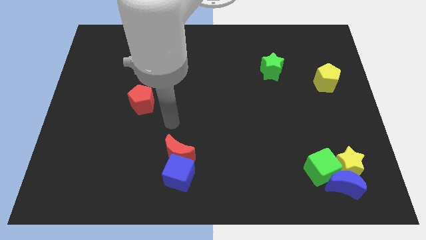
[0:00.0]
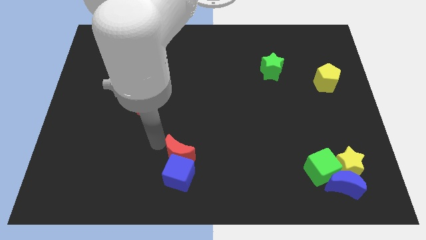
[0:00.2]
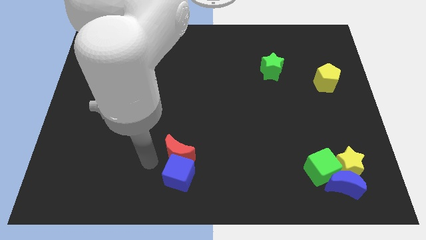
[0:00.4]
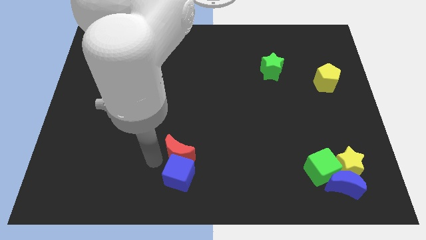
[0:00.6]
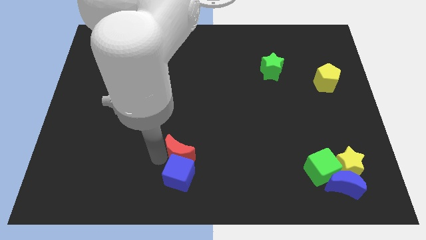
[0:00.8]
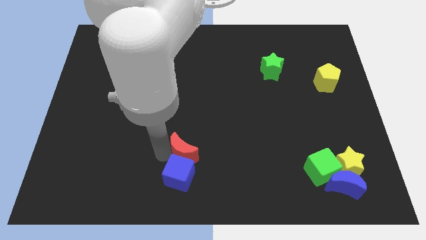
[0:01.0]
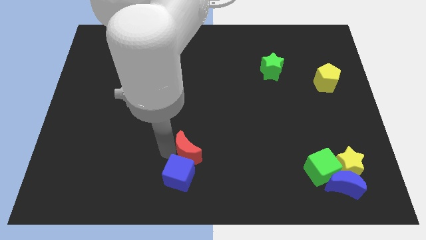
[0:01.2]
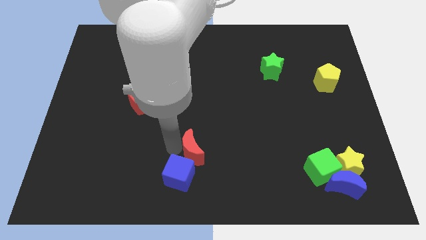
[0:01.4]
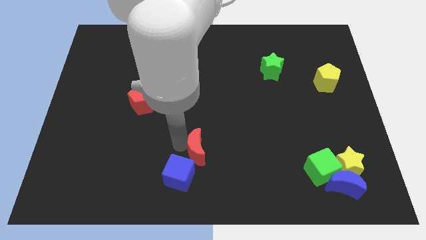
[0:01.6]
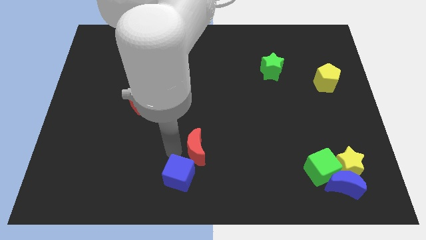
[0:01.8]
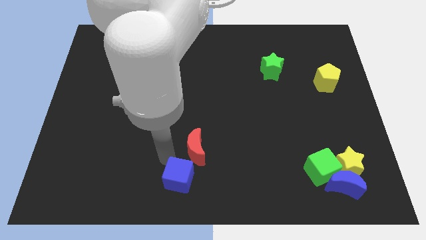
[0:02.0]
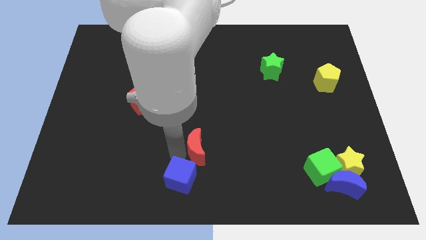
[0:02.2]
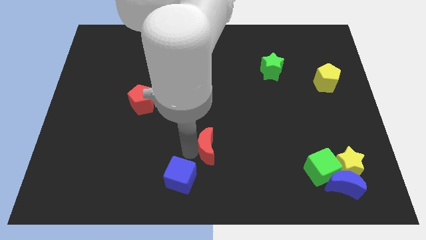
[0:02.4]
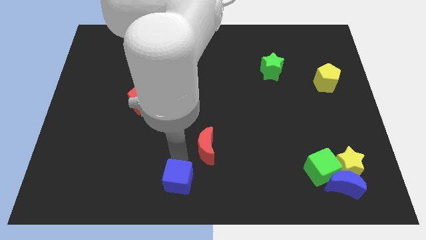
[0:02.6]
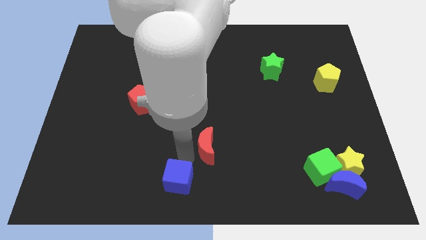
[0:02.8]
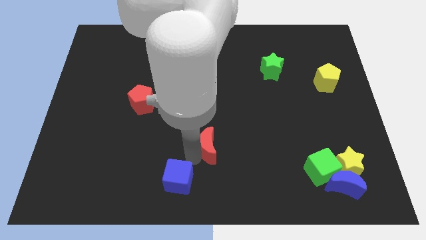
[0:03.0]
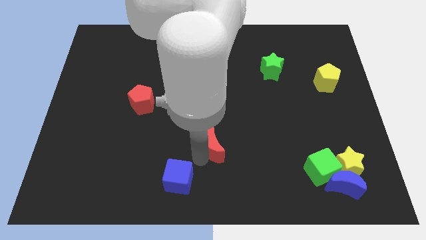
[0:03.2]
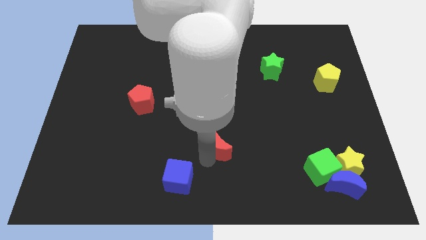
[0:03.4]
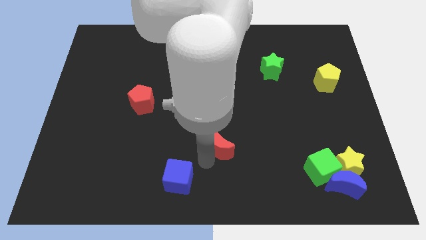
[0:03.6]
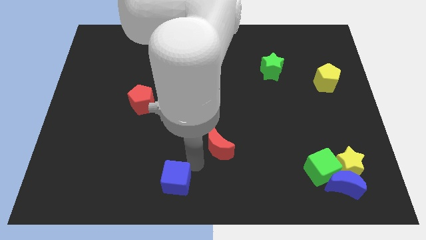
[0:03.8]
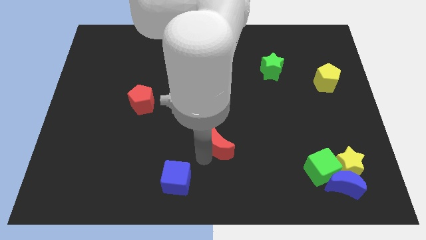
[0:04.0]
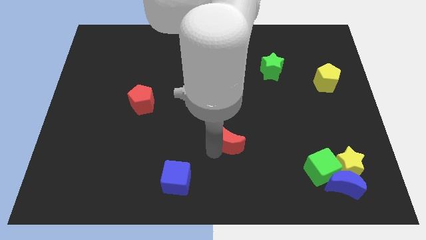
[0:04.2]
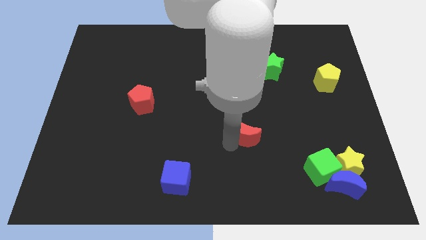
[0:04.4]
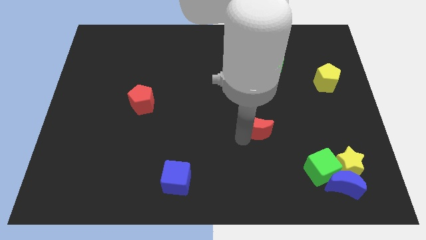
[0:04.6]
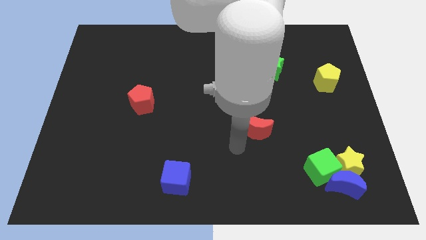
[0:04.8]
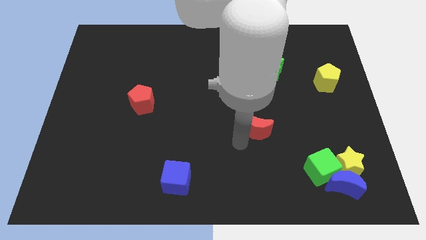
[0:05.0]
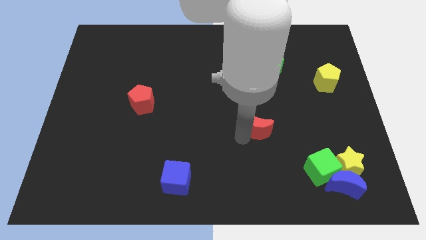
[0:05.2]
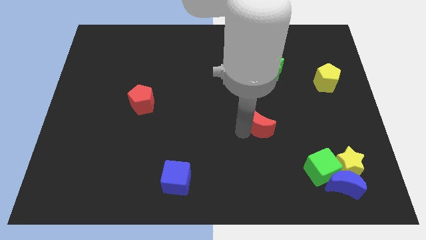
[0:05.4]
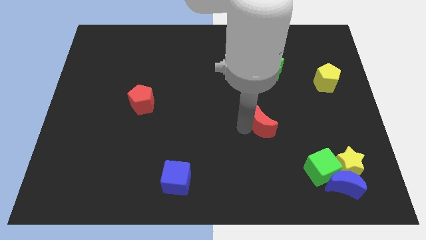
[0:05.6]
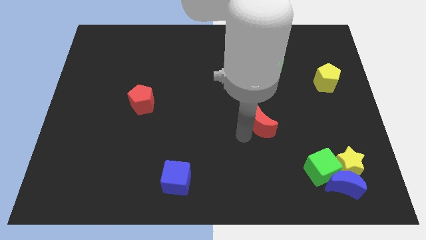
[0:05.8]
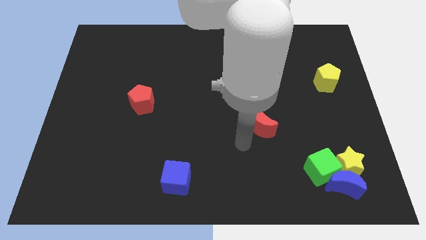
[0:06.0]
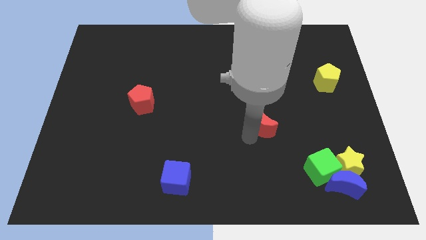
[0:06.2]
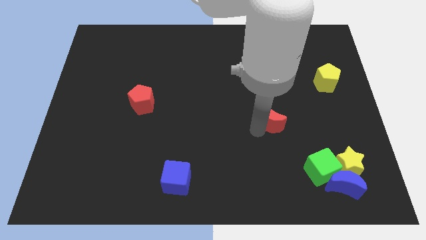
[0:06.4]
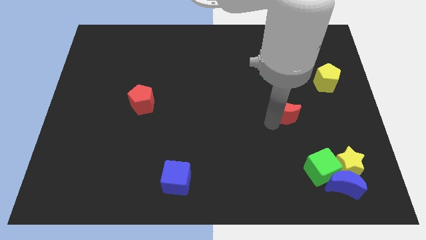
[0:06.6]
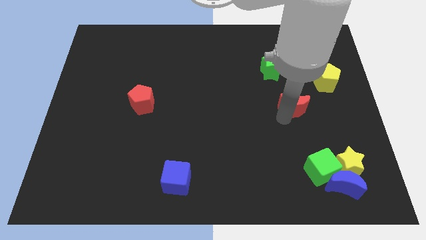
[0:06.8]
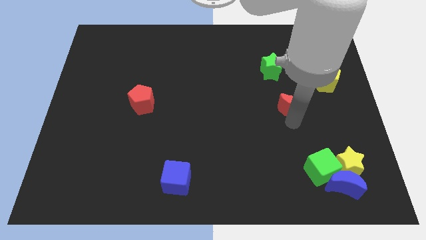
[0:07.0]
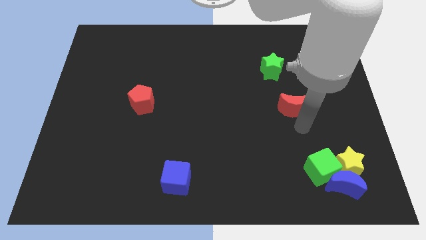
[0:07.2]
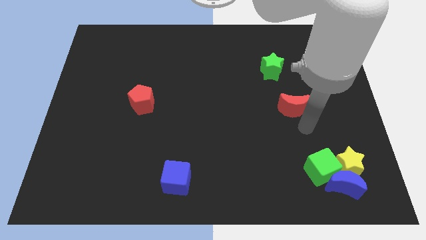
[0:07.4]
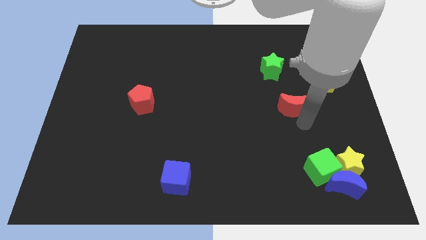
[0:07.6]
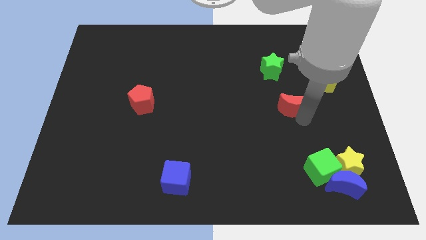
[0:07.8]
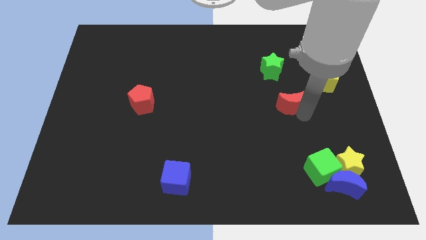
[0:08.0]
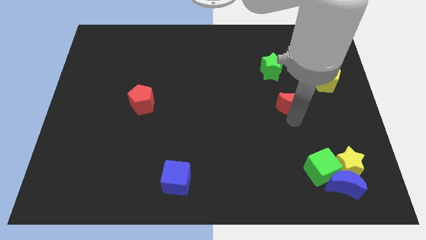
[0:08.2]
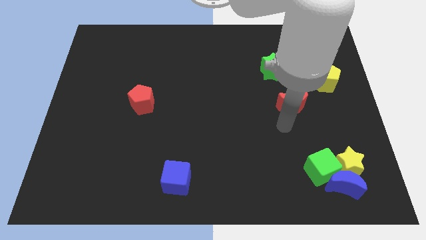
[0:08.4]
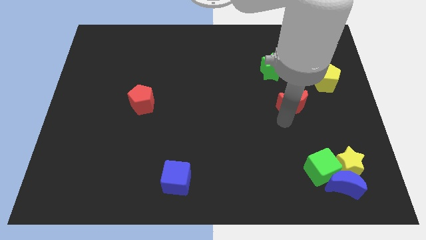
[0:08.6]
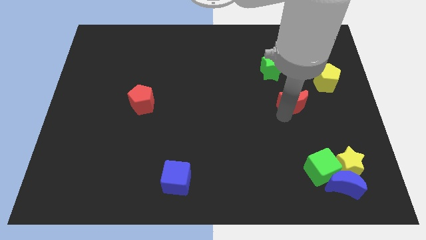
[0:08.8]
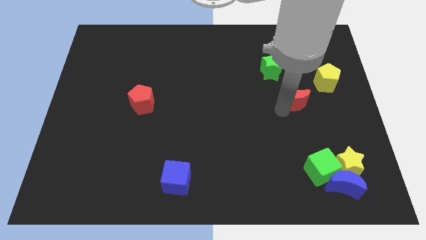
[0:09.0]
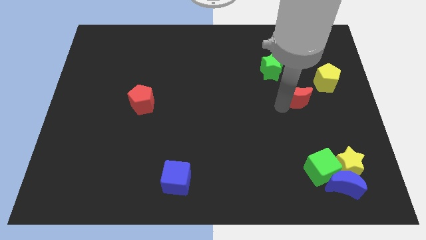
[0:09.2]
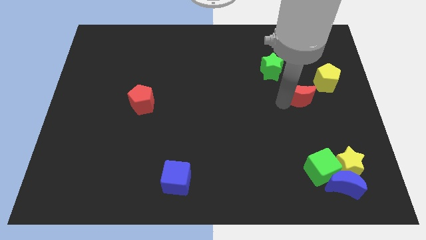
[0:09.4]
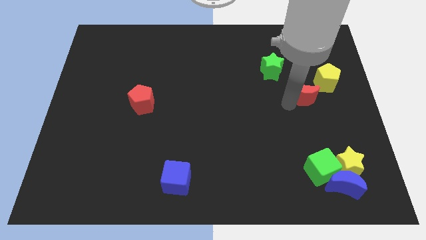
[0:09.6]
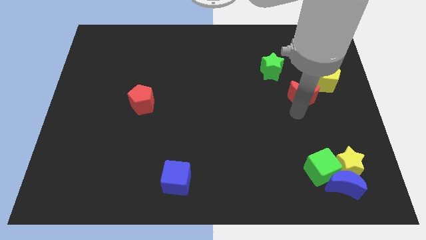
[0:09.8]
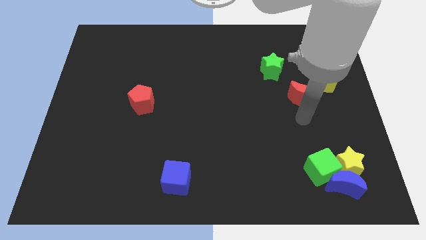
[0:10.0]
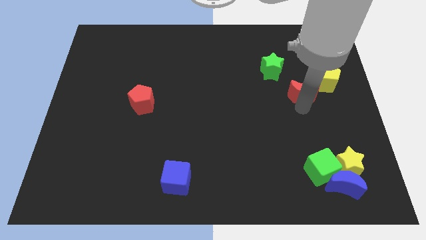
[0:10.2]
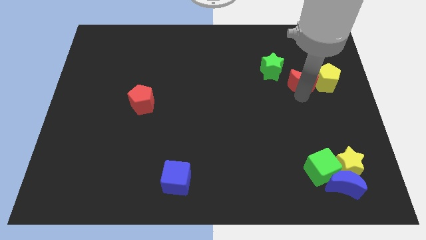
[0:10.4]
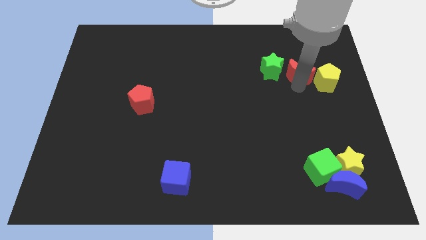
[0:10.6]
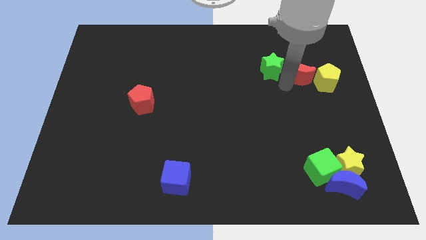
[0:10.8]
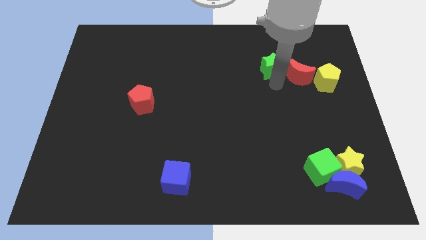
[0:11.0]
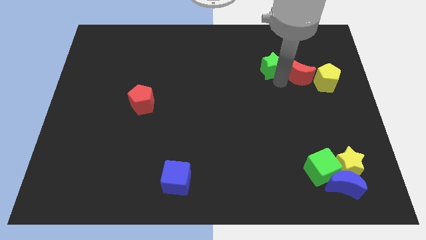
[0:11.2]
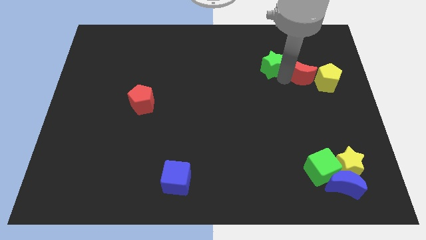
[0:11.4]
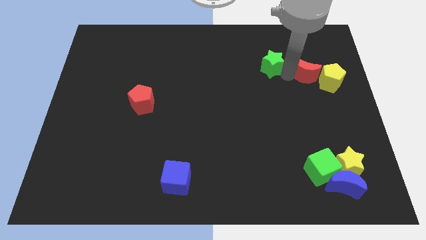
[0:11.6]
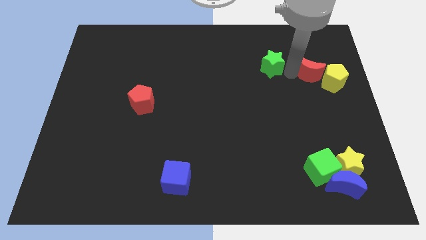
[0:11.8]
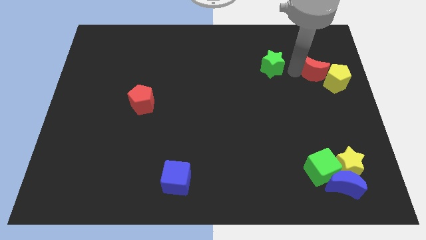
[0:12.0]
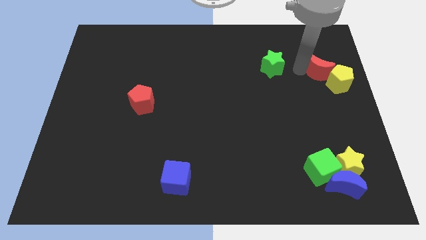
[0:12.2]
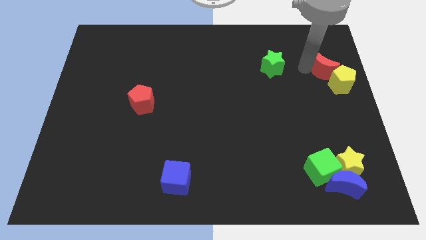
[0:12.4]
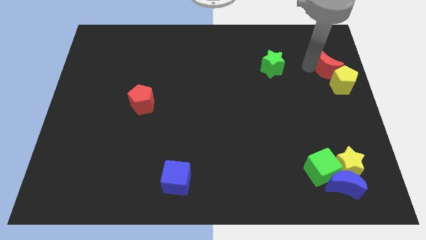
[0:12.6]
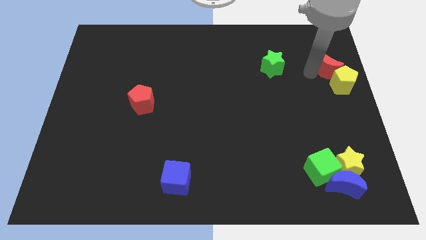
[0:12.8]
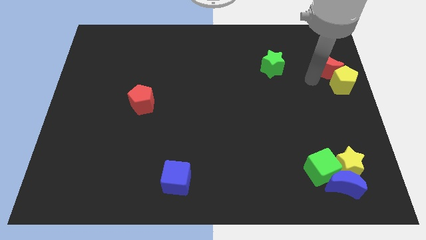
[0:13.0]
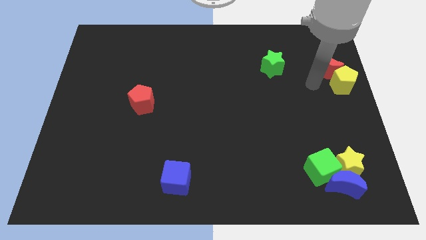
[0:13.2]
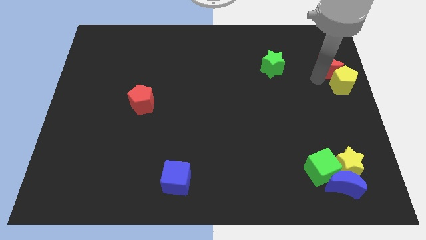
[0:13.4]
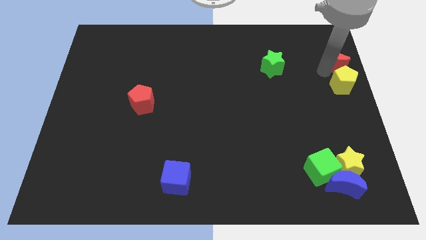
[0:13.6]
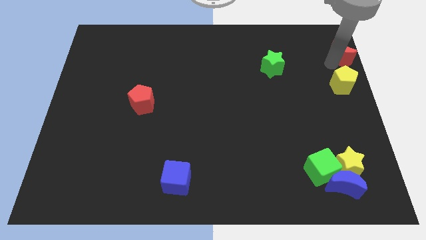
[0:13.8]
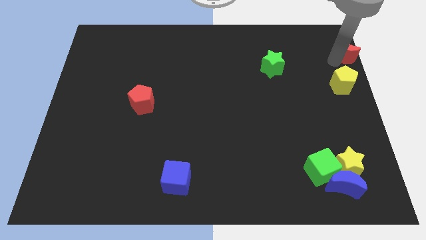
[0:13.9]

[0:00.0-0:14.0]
push the red moon to the top right of the board
